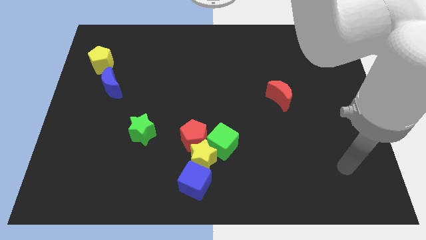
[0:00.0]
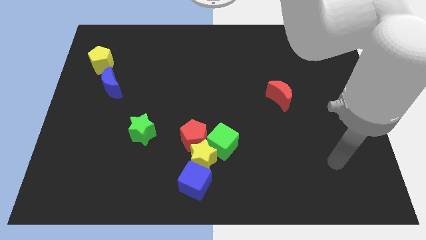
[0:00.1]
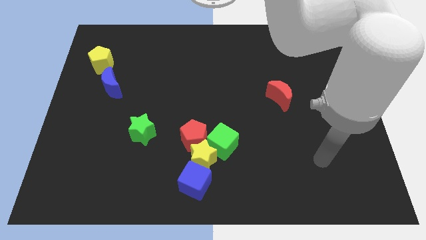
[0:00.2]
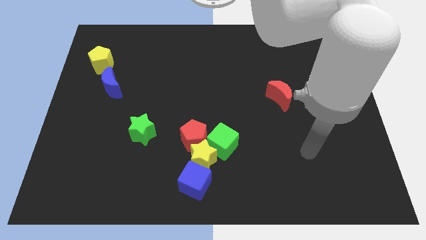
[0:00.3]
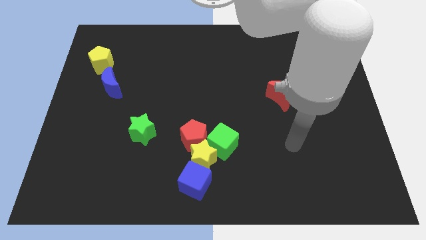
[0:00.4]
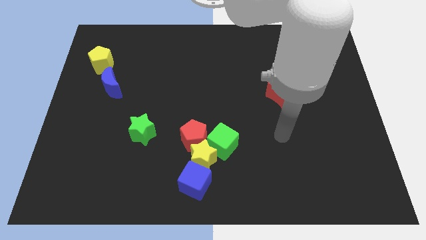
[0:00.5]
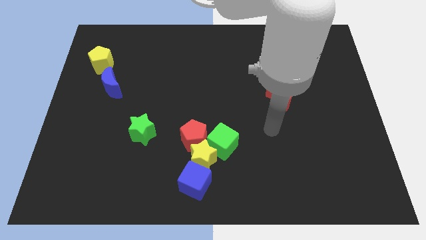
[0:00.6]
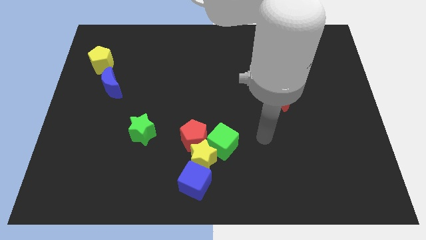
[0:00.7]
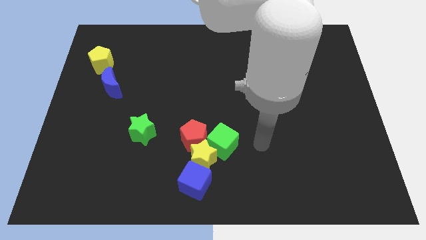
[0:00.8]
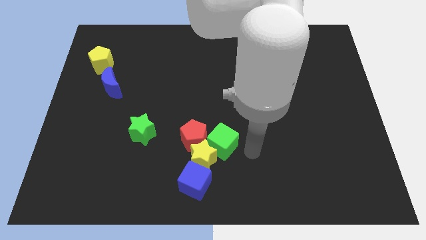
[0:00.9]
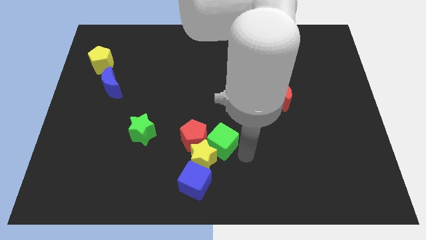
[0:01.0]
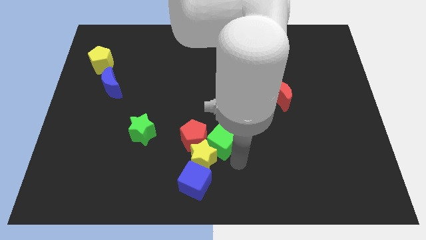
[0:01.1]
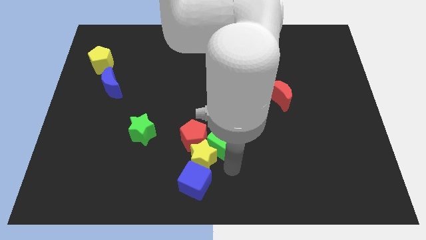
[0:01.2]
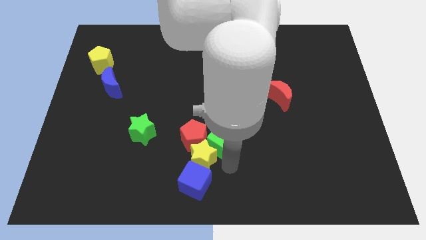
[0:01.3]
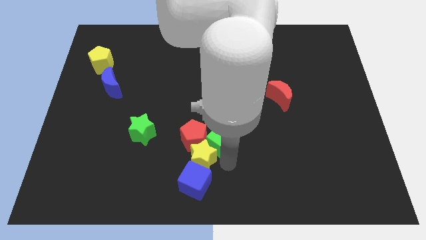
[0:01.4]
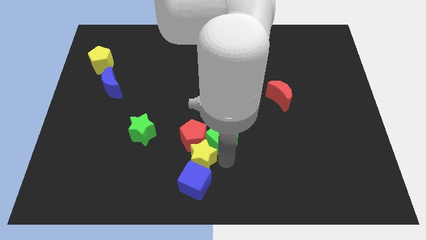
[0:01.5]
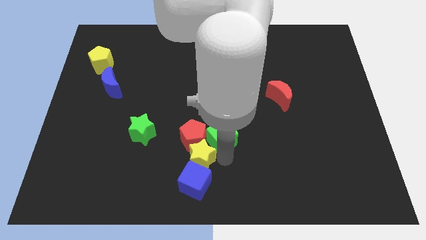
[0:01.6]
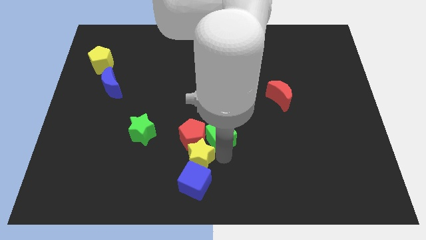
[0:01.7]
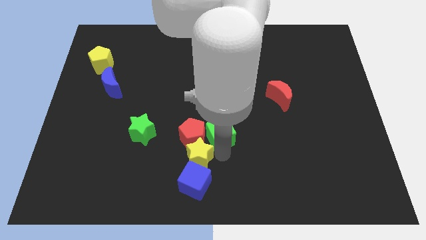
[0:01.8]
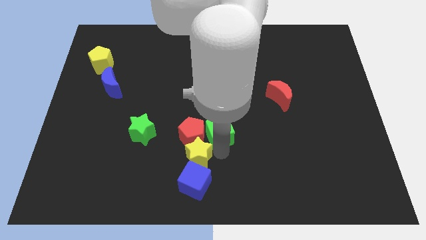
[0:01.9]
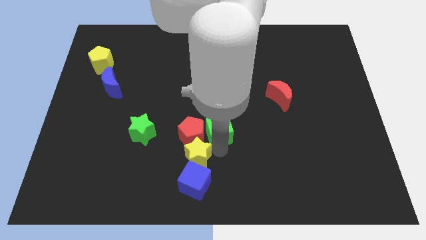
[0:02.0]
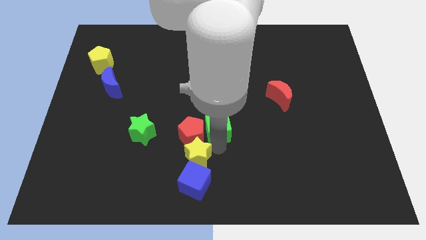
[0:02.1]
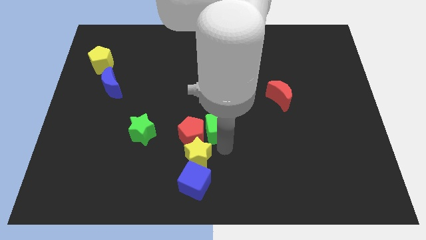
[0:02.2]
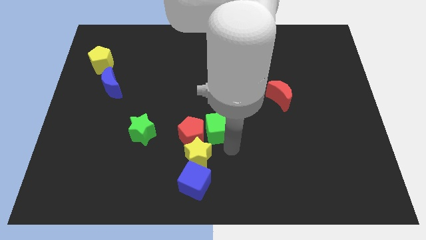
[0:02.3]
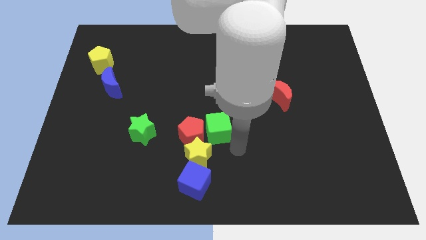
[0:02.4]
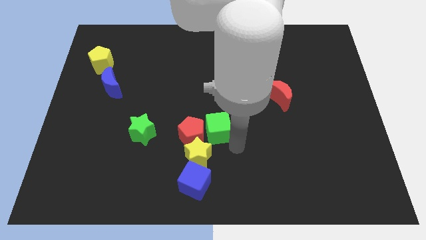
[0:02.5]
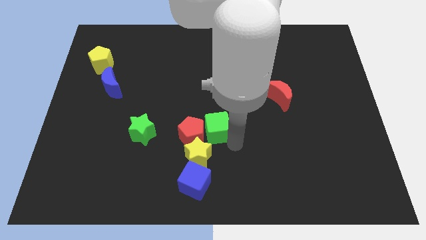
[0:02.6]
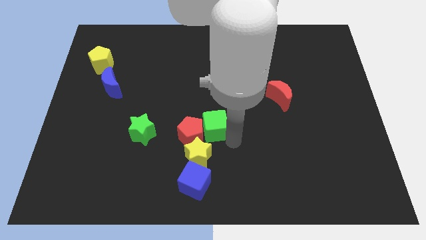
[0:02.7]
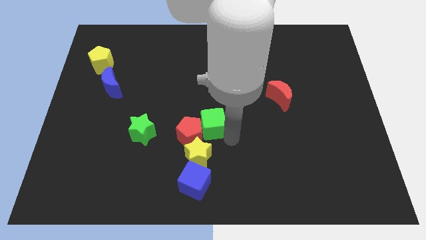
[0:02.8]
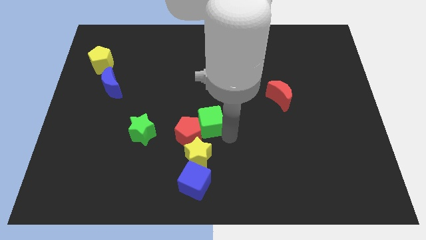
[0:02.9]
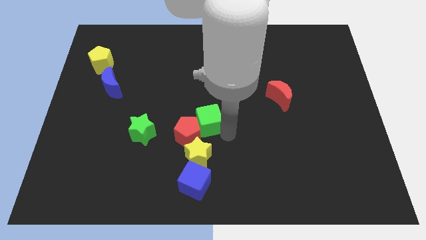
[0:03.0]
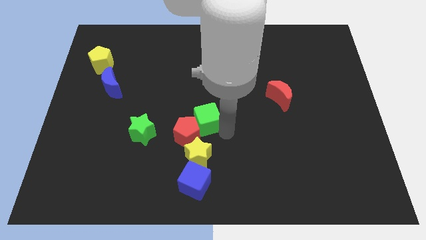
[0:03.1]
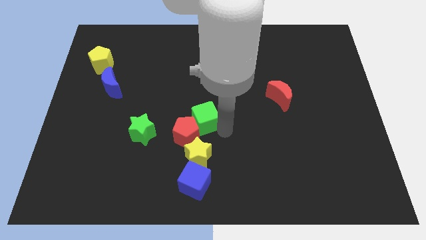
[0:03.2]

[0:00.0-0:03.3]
push the green cube upwards and then left somewhat

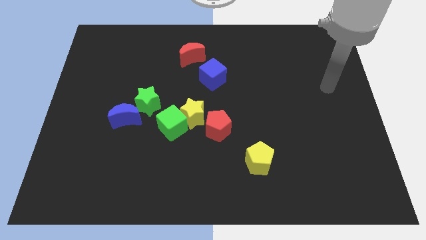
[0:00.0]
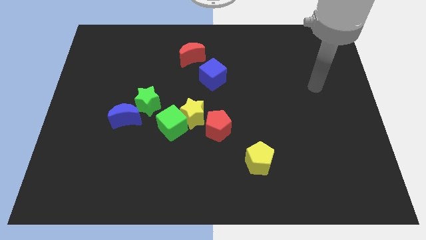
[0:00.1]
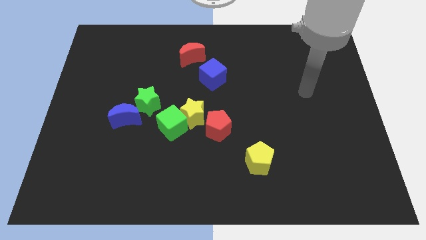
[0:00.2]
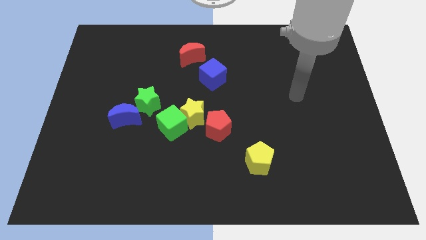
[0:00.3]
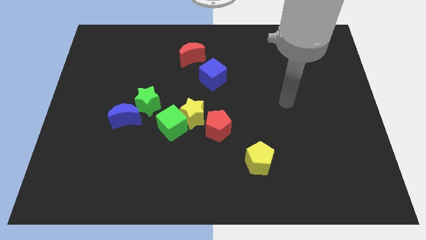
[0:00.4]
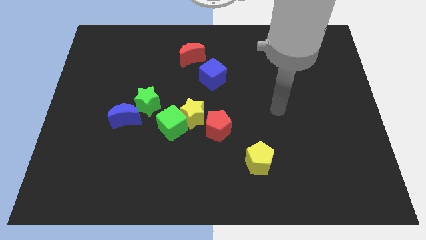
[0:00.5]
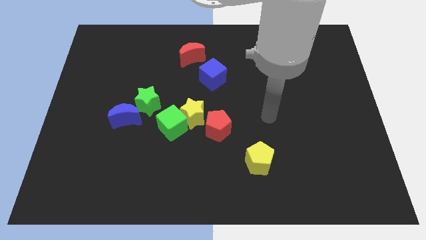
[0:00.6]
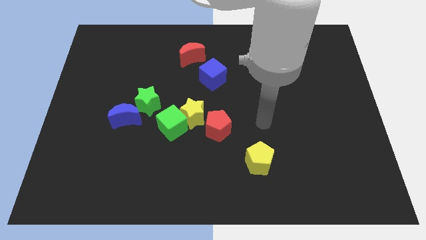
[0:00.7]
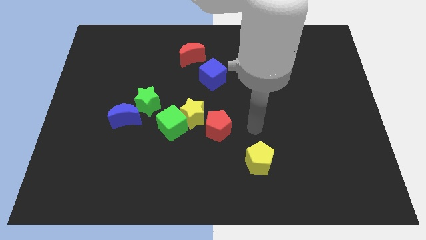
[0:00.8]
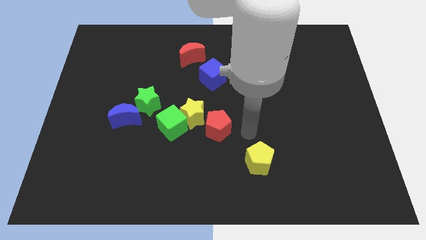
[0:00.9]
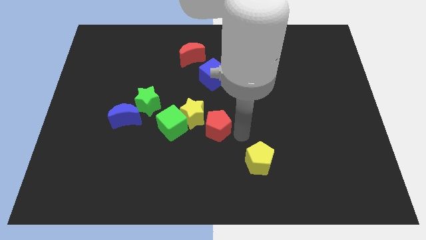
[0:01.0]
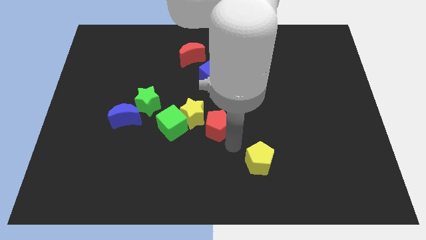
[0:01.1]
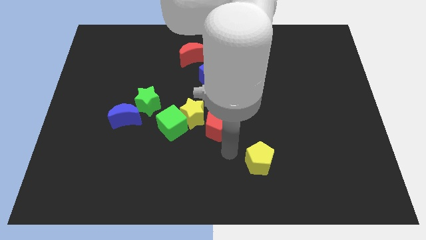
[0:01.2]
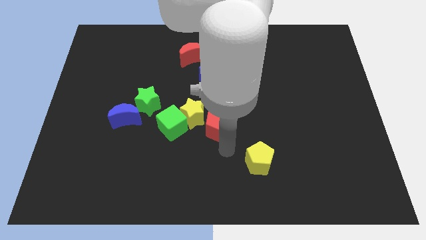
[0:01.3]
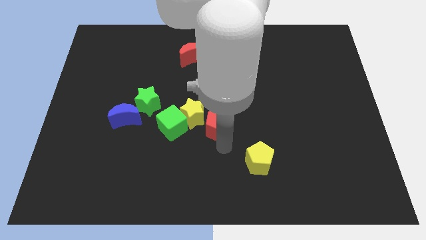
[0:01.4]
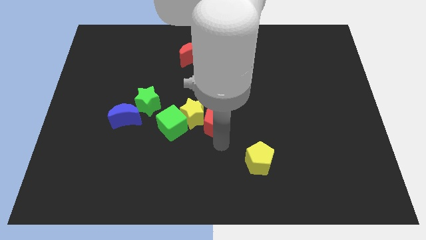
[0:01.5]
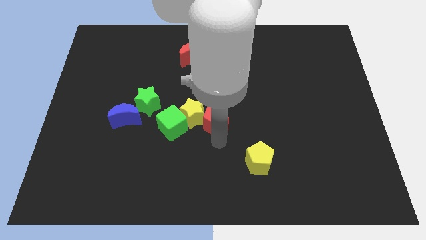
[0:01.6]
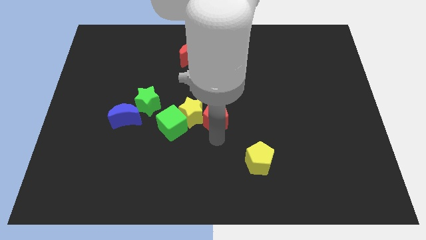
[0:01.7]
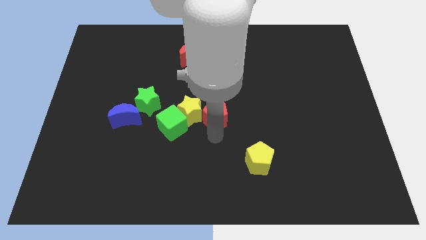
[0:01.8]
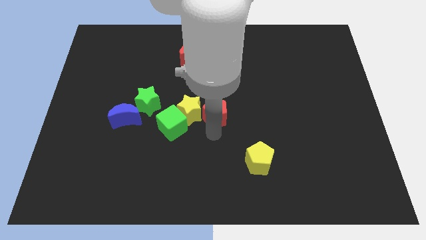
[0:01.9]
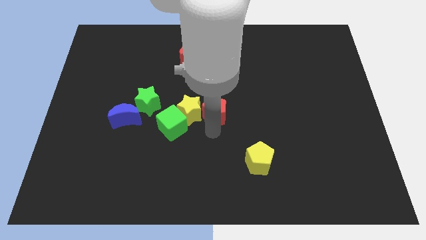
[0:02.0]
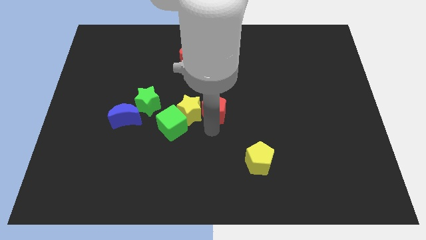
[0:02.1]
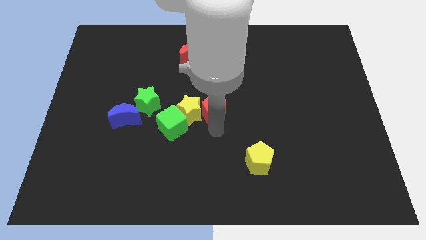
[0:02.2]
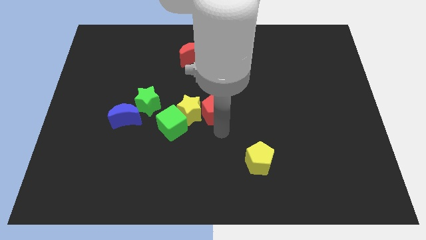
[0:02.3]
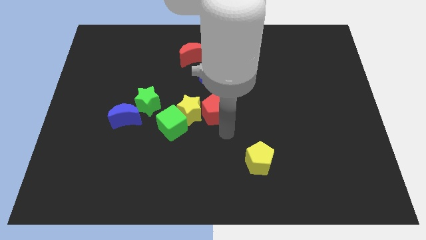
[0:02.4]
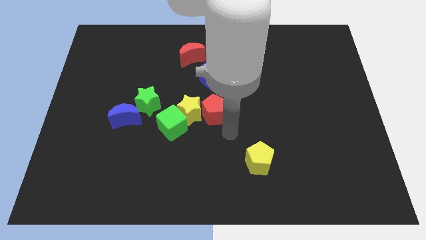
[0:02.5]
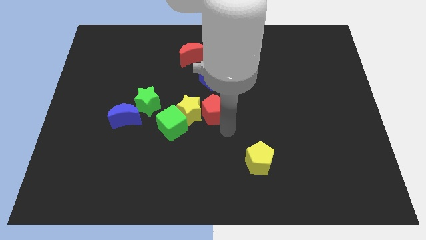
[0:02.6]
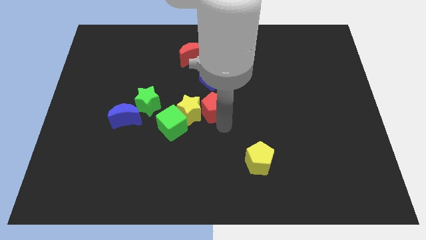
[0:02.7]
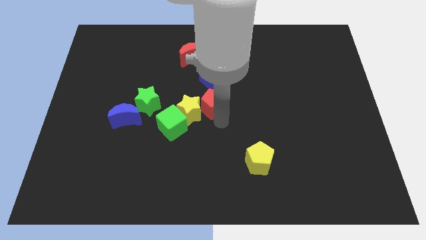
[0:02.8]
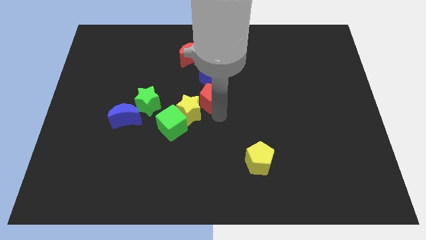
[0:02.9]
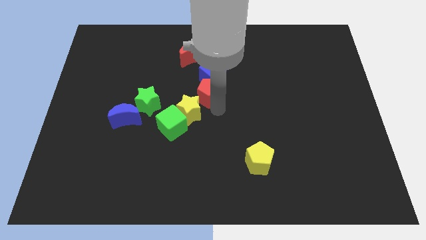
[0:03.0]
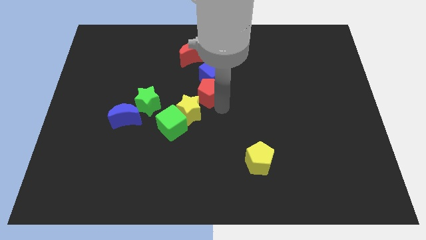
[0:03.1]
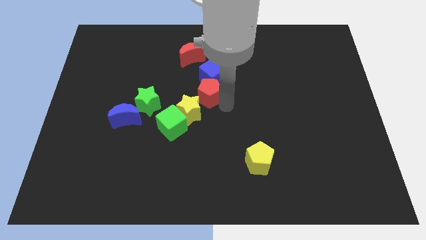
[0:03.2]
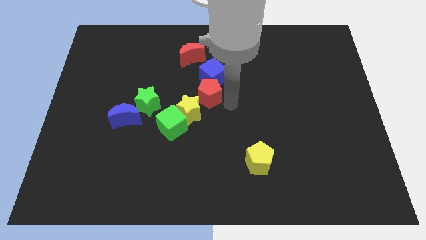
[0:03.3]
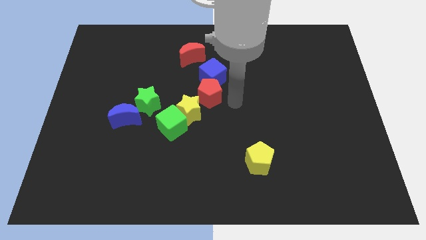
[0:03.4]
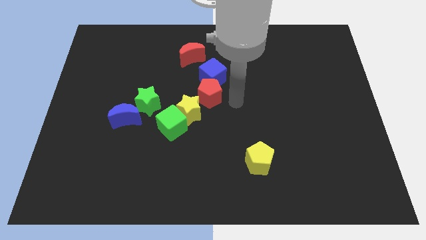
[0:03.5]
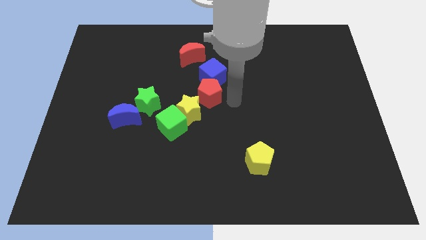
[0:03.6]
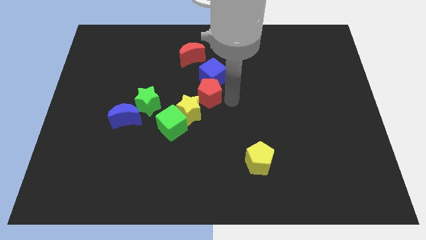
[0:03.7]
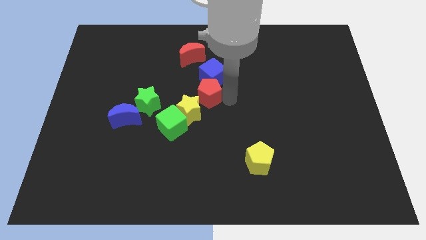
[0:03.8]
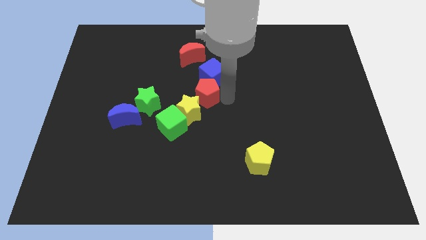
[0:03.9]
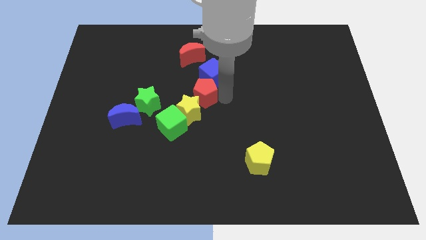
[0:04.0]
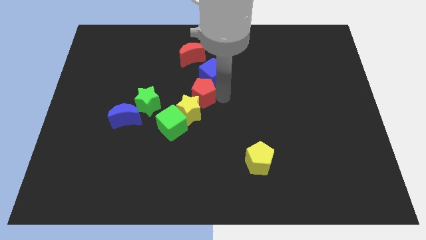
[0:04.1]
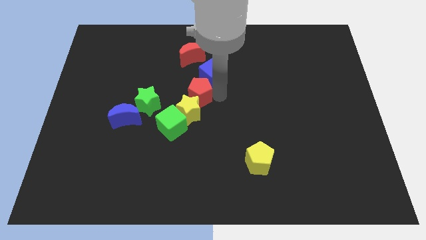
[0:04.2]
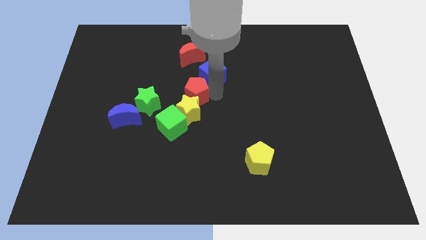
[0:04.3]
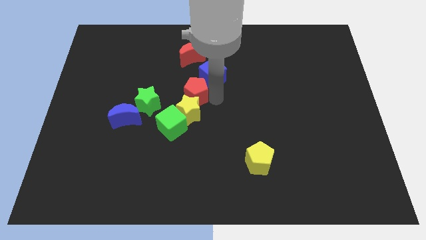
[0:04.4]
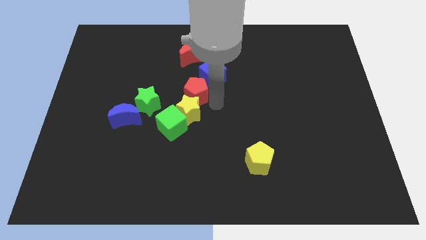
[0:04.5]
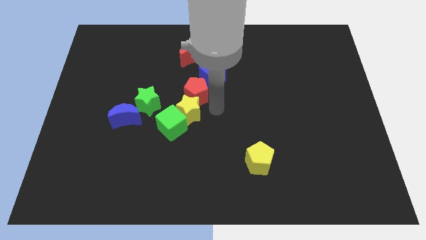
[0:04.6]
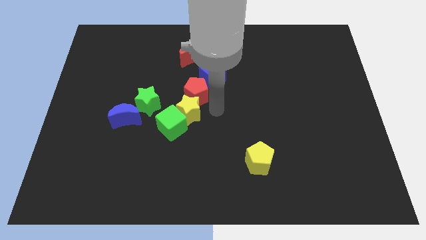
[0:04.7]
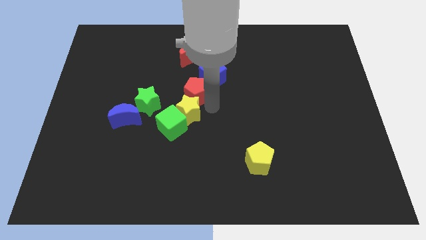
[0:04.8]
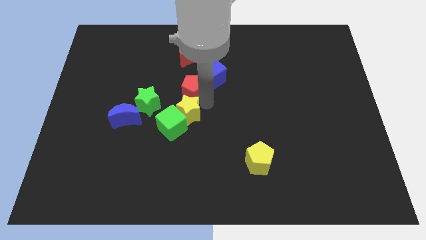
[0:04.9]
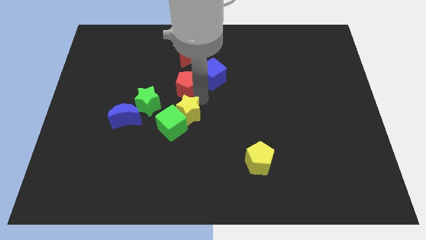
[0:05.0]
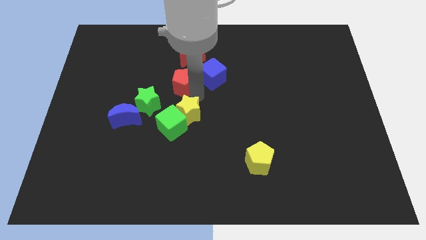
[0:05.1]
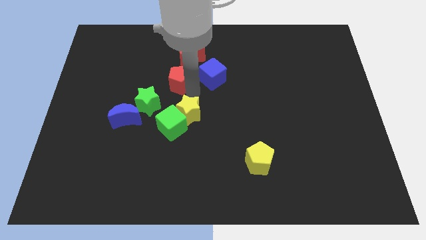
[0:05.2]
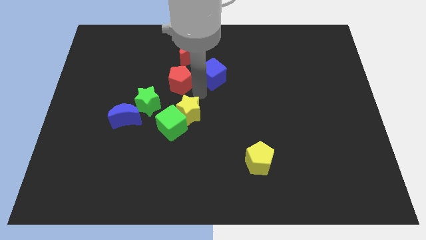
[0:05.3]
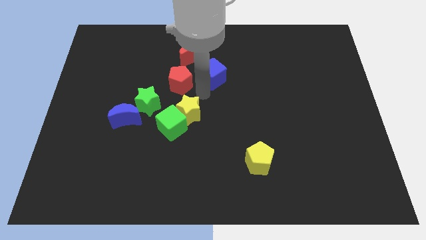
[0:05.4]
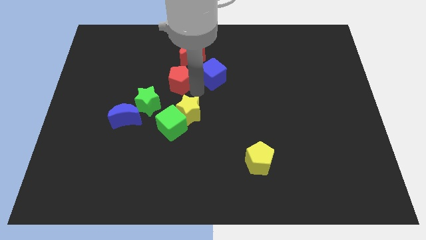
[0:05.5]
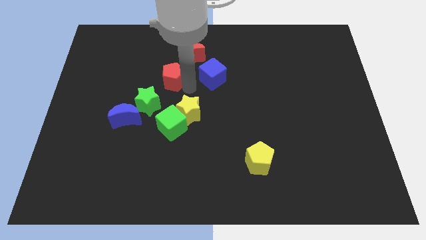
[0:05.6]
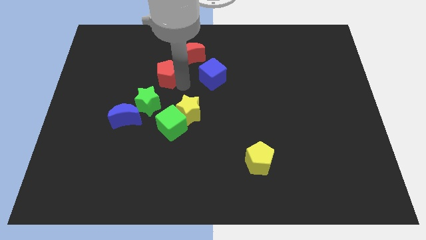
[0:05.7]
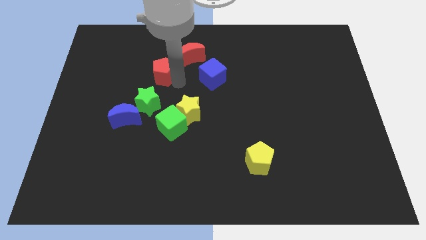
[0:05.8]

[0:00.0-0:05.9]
push the red pentagon upwards and to the left
